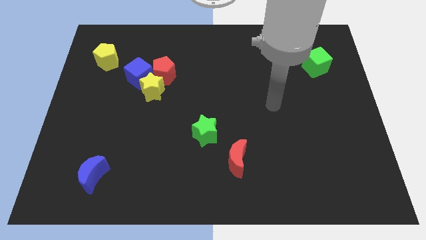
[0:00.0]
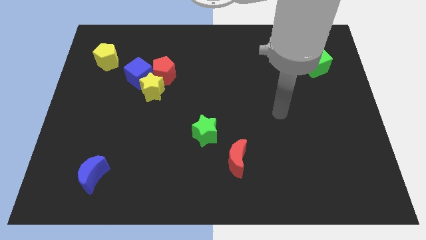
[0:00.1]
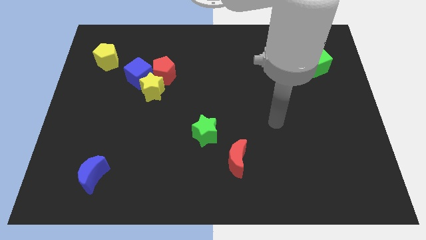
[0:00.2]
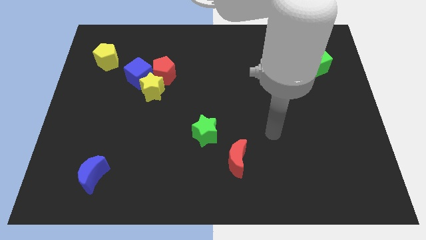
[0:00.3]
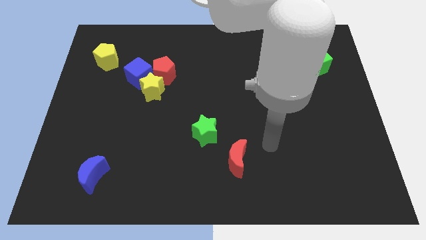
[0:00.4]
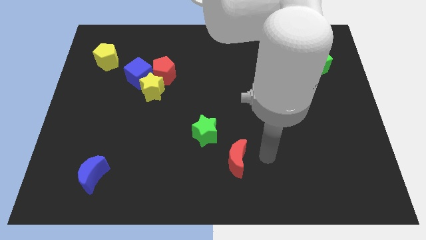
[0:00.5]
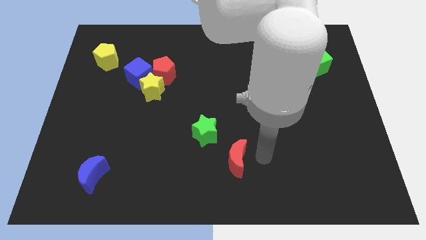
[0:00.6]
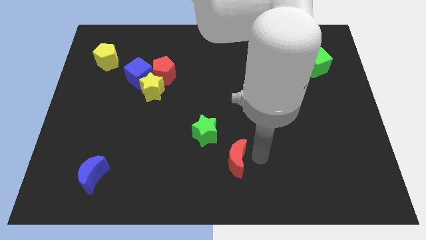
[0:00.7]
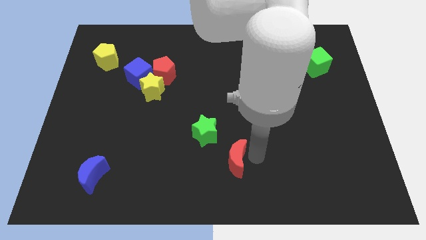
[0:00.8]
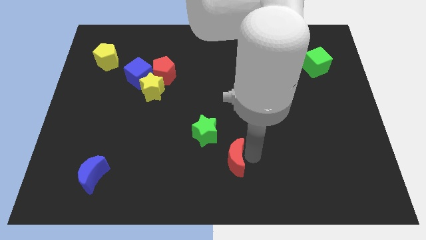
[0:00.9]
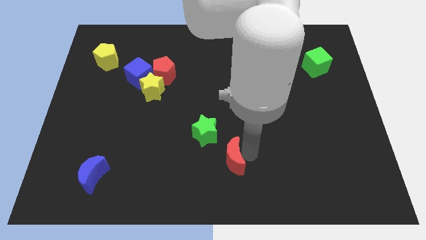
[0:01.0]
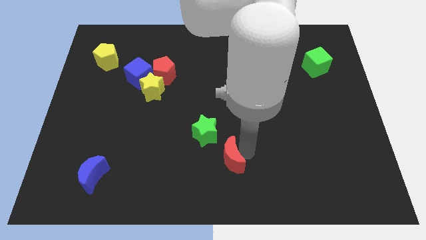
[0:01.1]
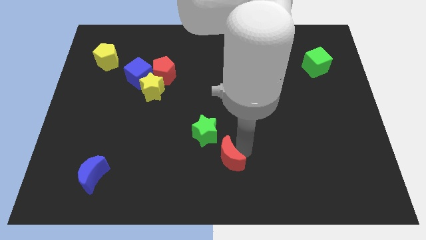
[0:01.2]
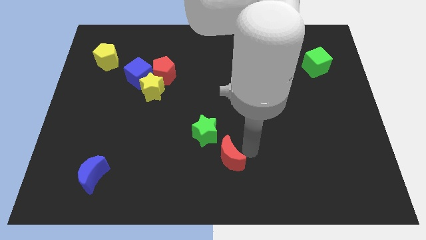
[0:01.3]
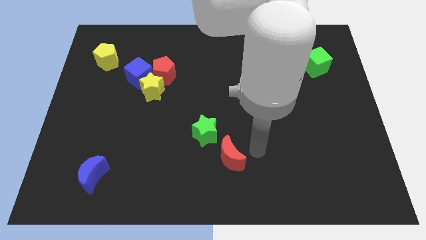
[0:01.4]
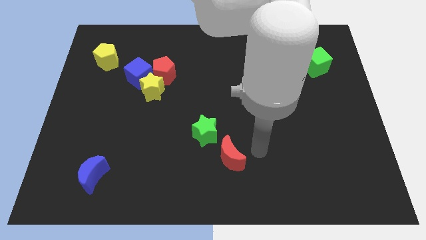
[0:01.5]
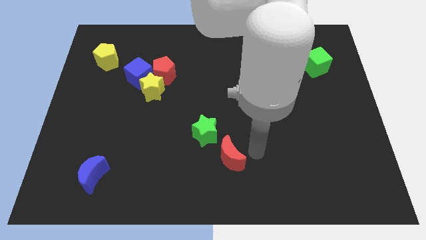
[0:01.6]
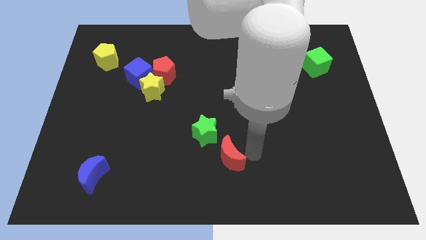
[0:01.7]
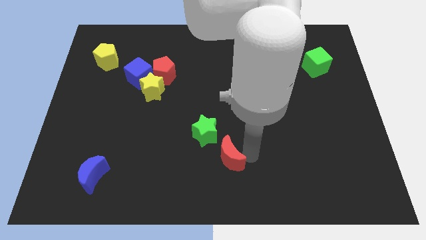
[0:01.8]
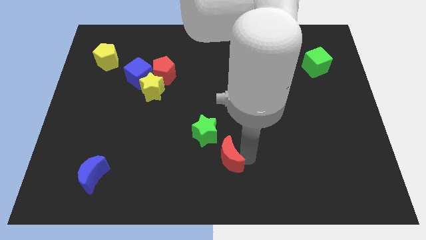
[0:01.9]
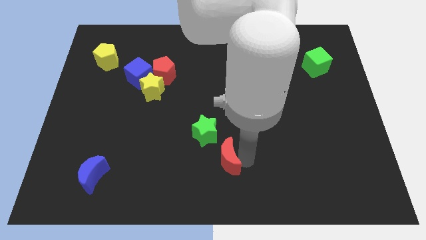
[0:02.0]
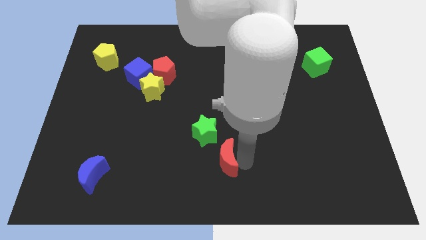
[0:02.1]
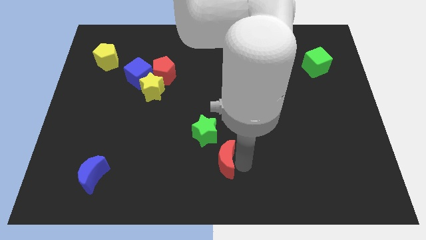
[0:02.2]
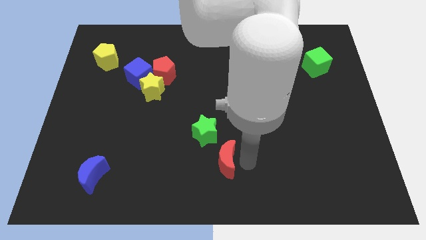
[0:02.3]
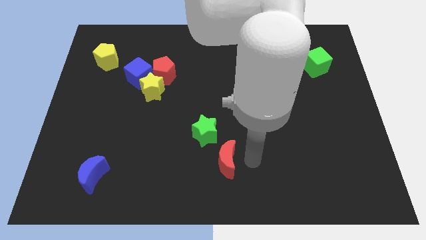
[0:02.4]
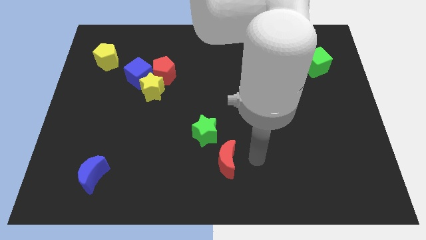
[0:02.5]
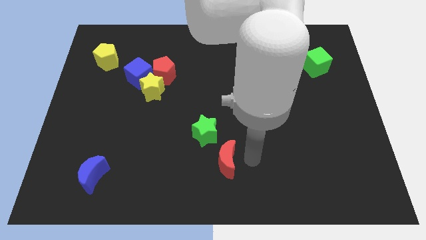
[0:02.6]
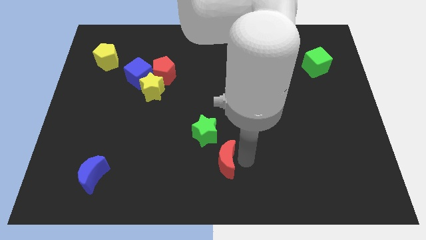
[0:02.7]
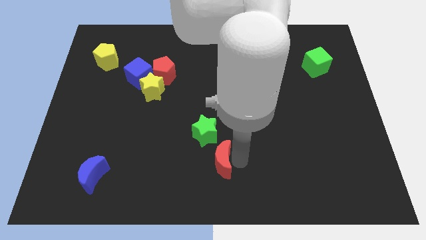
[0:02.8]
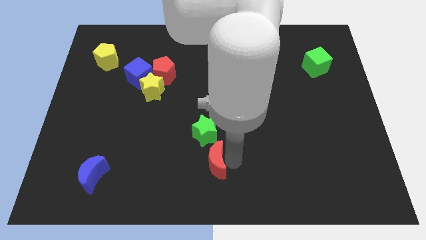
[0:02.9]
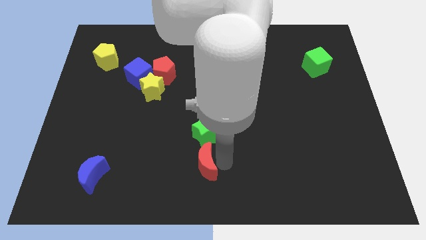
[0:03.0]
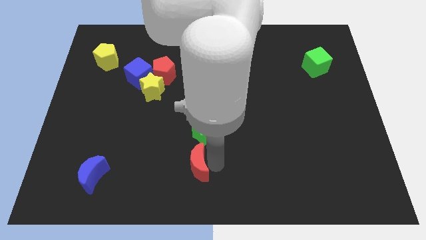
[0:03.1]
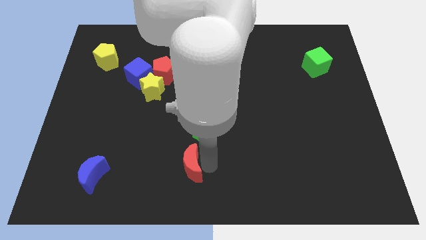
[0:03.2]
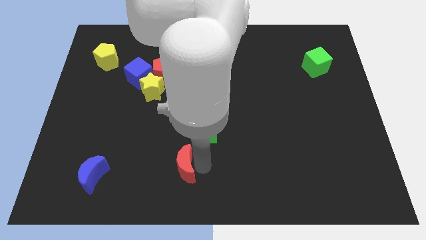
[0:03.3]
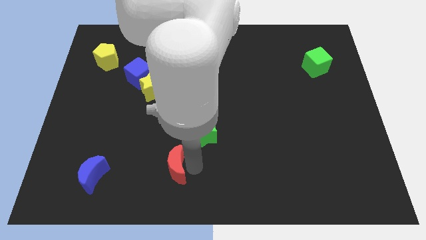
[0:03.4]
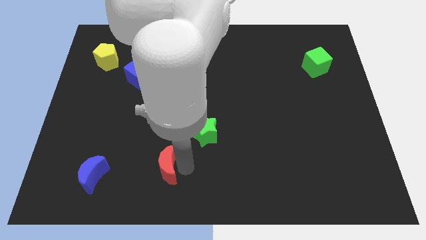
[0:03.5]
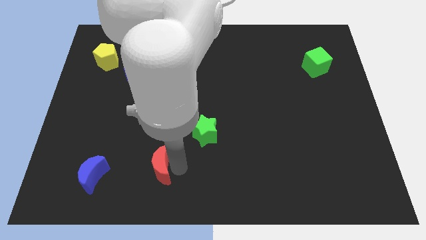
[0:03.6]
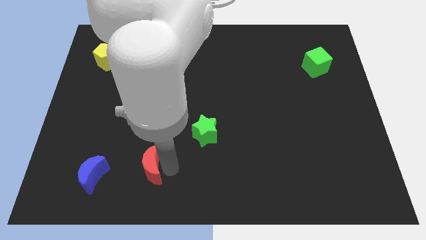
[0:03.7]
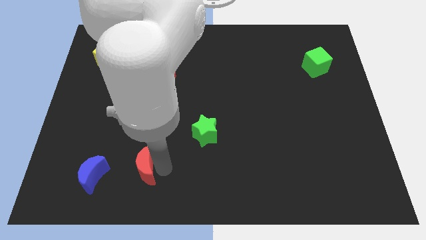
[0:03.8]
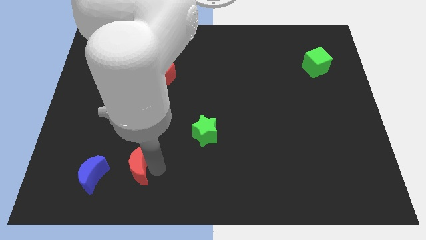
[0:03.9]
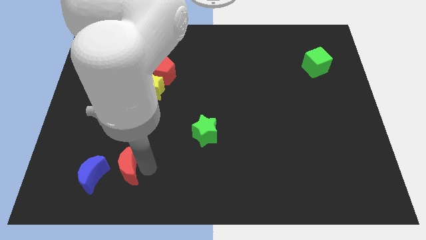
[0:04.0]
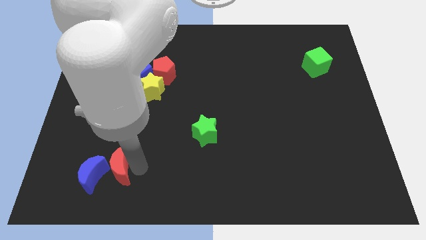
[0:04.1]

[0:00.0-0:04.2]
put the red moon towards the blue moon

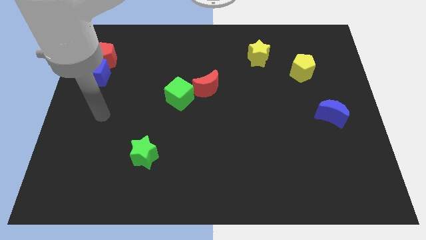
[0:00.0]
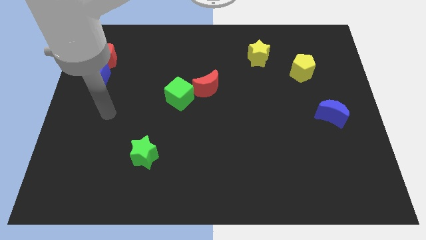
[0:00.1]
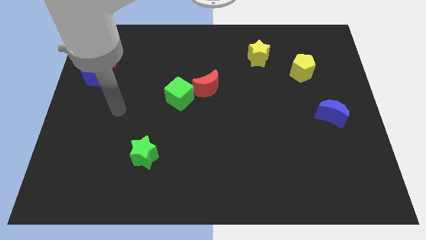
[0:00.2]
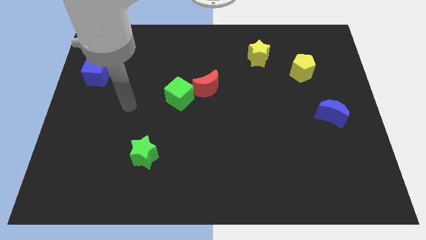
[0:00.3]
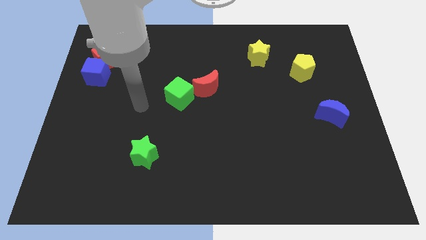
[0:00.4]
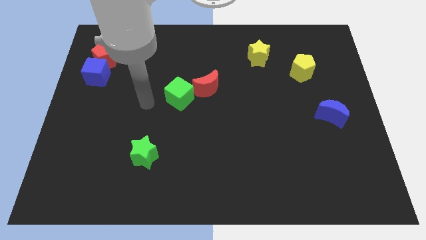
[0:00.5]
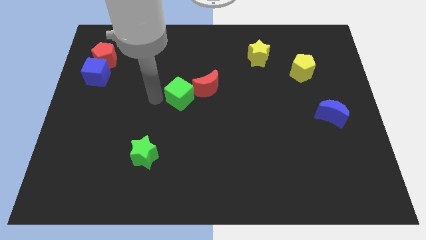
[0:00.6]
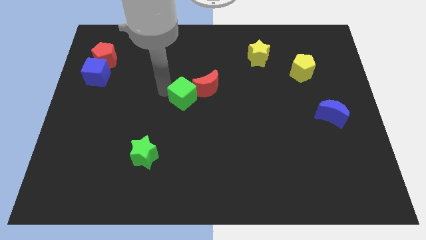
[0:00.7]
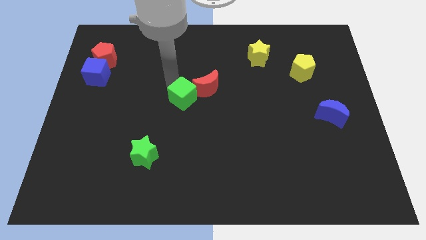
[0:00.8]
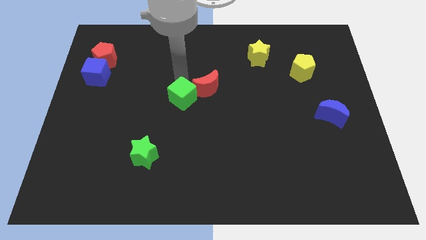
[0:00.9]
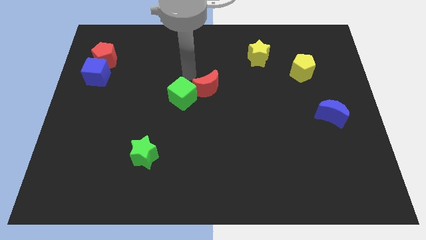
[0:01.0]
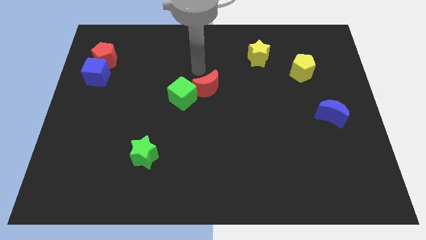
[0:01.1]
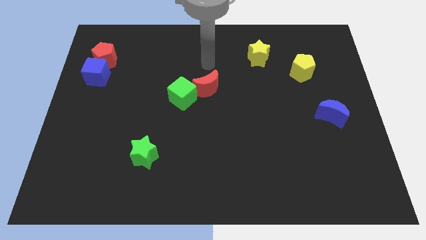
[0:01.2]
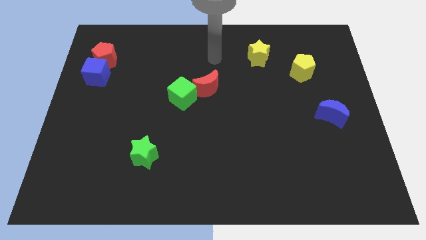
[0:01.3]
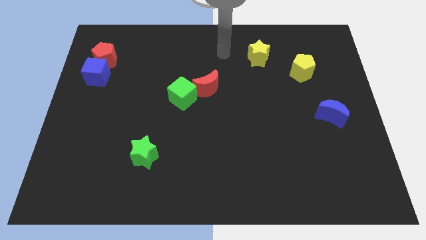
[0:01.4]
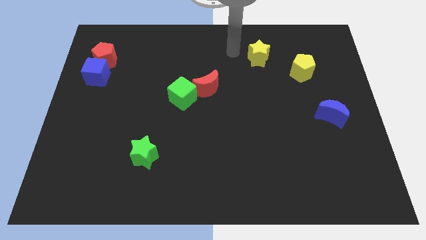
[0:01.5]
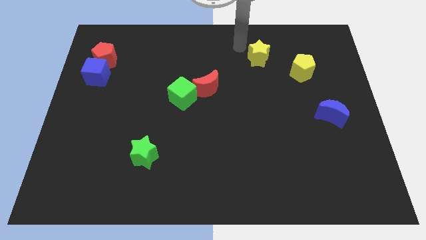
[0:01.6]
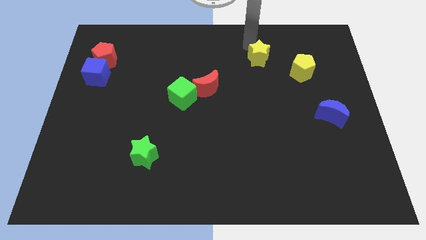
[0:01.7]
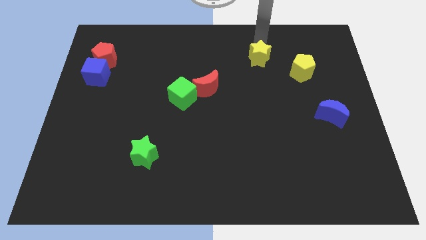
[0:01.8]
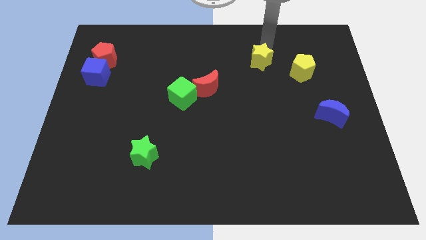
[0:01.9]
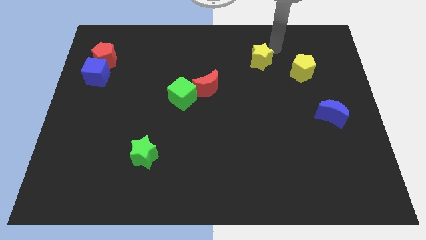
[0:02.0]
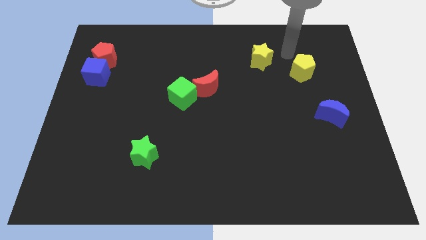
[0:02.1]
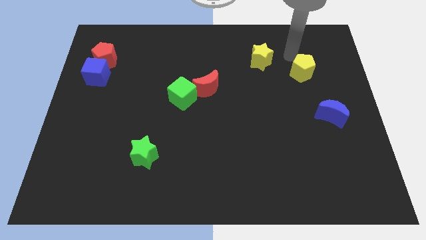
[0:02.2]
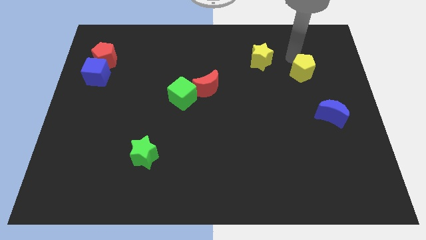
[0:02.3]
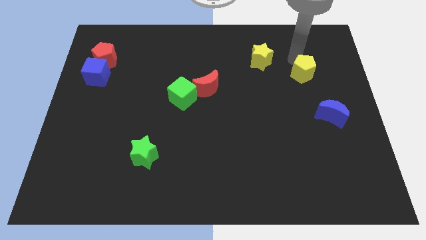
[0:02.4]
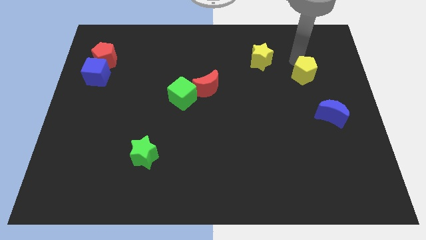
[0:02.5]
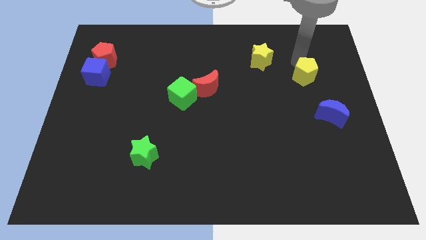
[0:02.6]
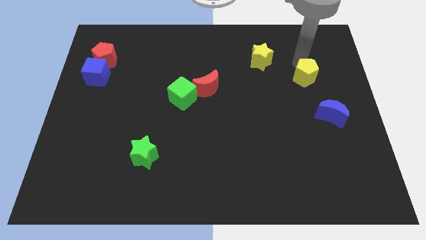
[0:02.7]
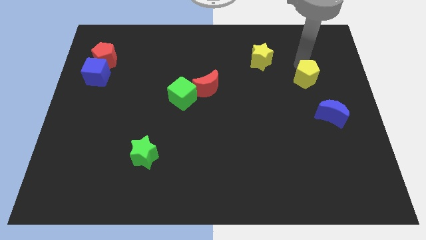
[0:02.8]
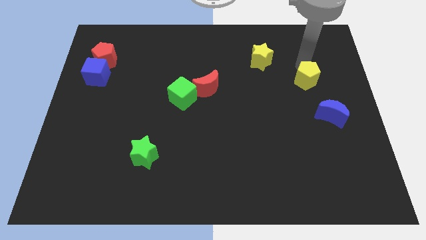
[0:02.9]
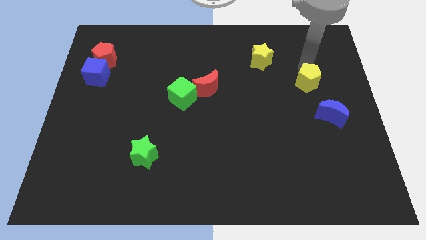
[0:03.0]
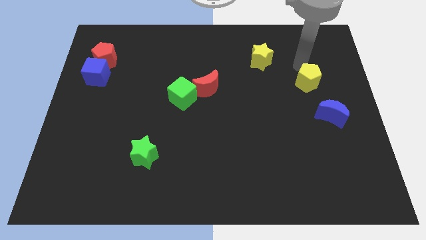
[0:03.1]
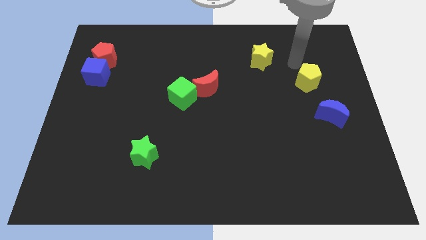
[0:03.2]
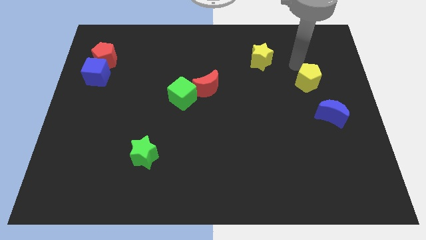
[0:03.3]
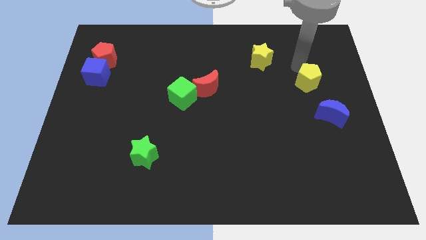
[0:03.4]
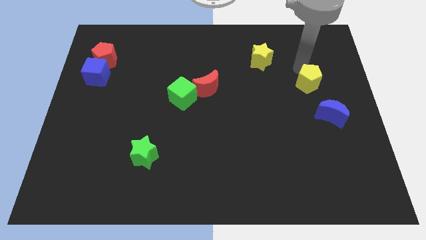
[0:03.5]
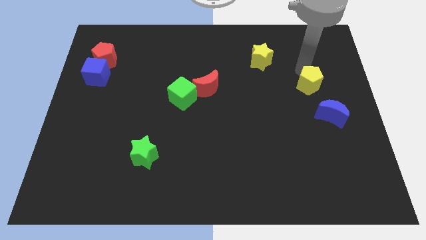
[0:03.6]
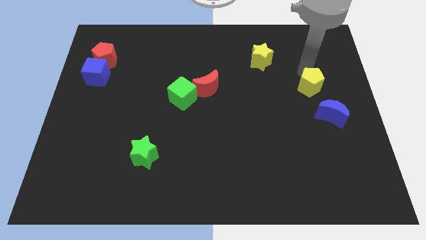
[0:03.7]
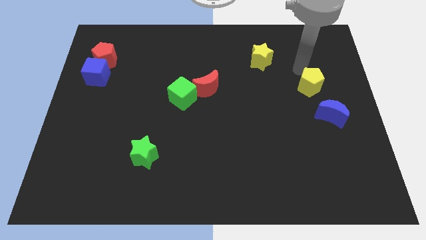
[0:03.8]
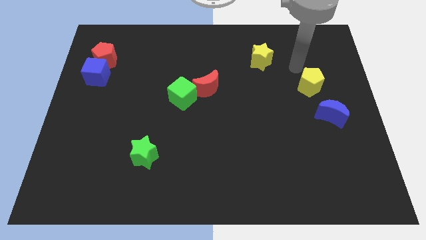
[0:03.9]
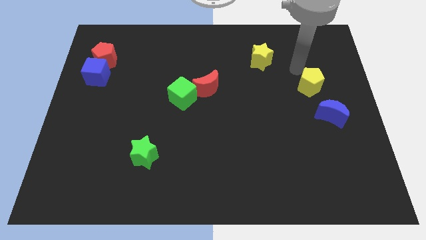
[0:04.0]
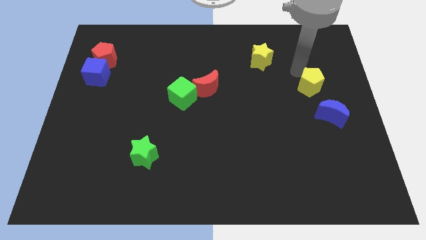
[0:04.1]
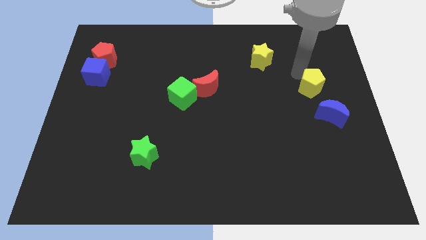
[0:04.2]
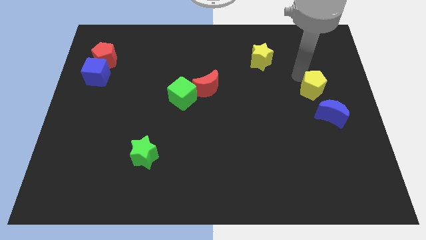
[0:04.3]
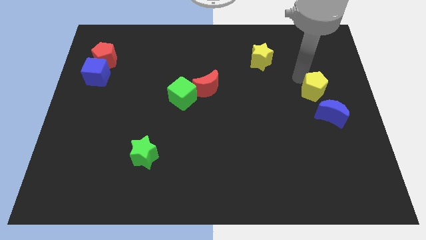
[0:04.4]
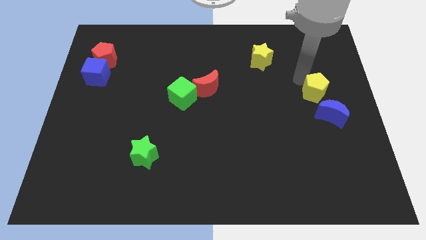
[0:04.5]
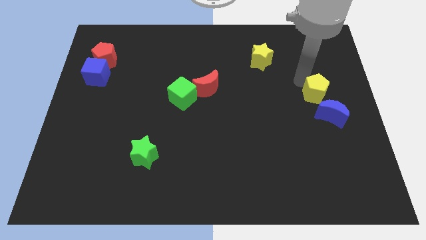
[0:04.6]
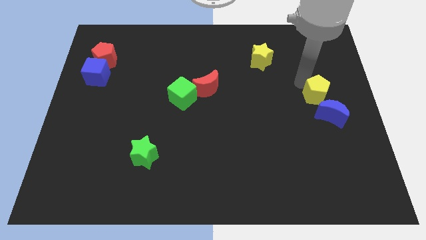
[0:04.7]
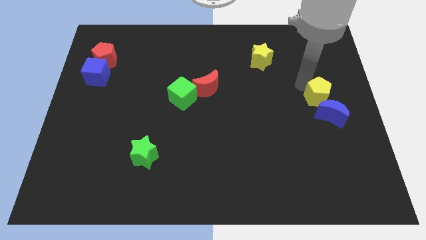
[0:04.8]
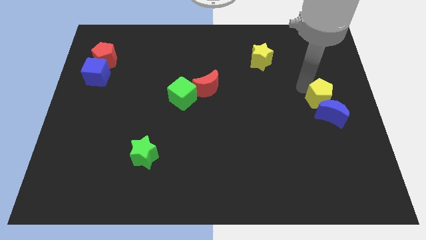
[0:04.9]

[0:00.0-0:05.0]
push the yellow pentagon next to the blue moon
